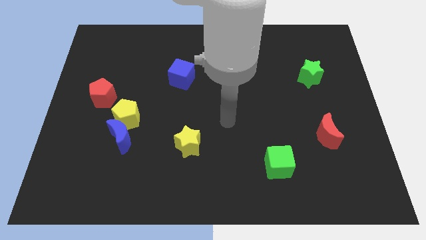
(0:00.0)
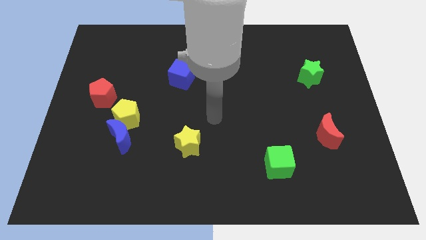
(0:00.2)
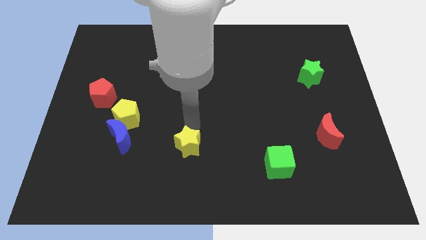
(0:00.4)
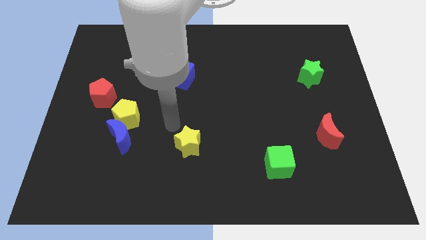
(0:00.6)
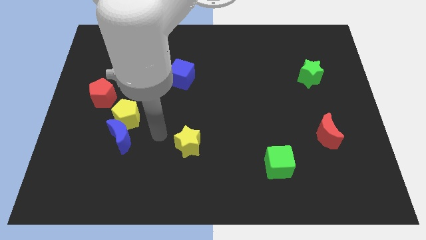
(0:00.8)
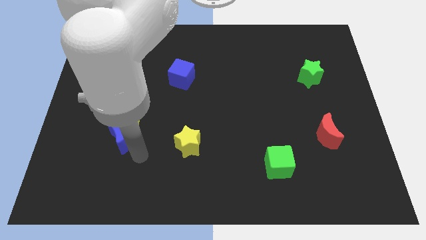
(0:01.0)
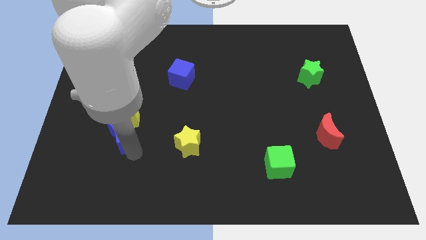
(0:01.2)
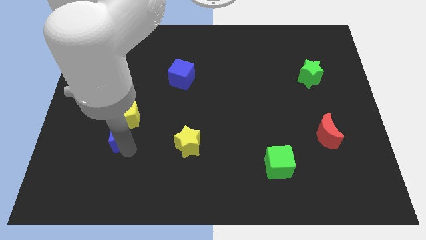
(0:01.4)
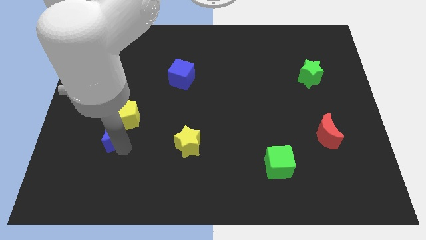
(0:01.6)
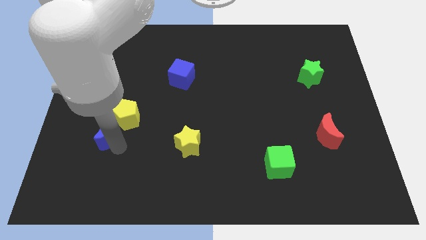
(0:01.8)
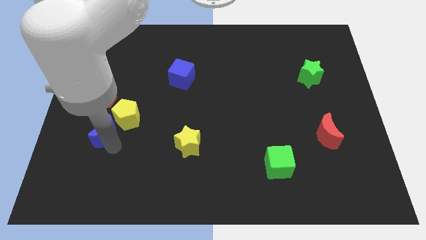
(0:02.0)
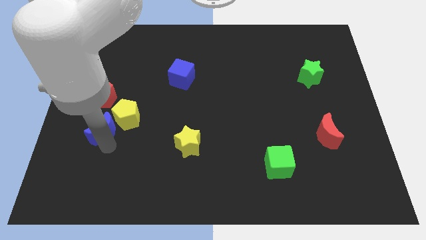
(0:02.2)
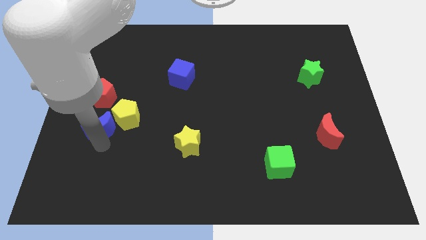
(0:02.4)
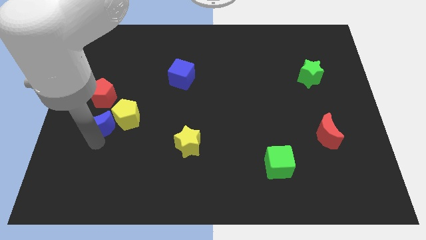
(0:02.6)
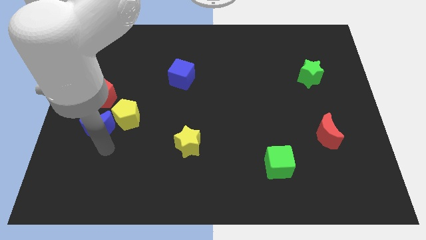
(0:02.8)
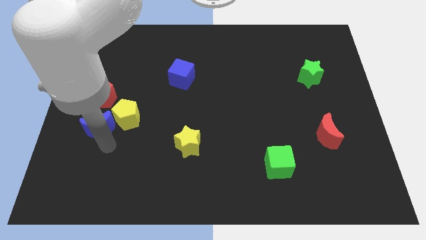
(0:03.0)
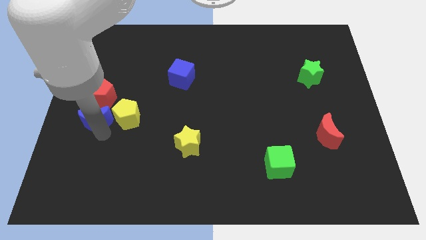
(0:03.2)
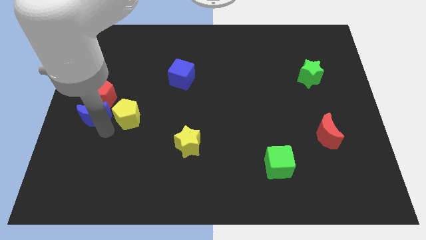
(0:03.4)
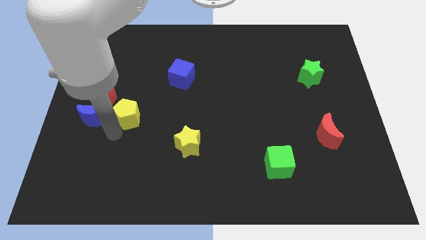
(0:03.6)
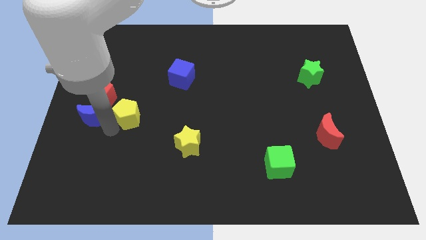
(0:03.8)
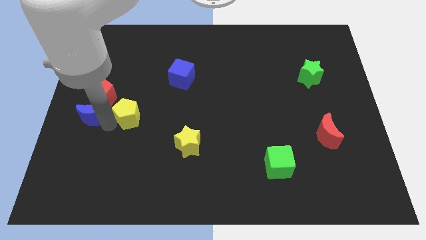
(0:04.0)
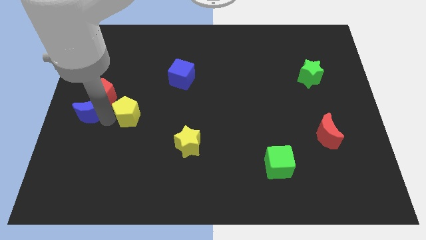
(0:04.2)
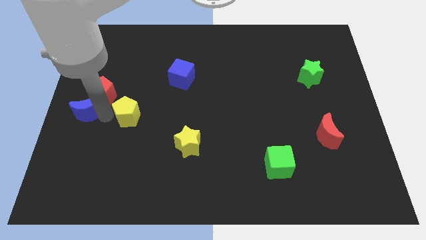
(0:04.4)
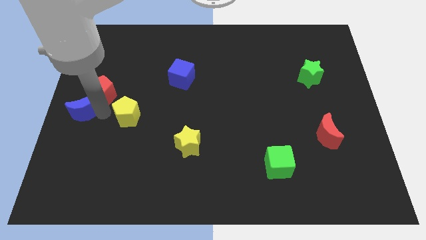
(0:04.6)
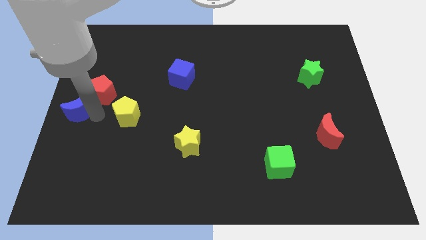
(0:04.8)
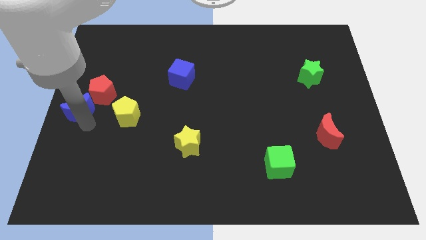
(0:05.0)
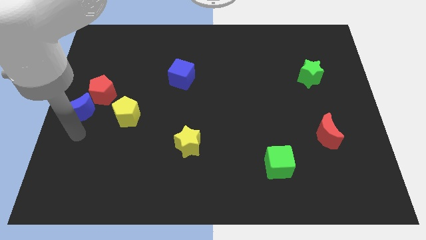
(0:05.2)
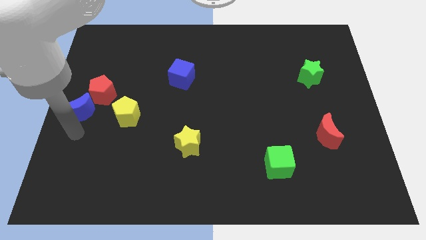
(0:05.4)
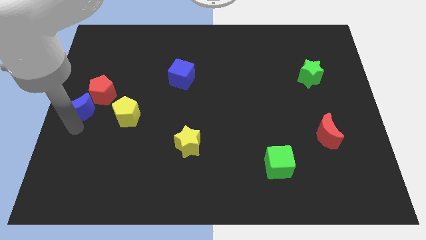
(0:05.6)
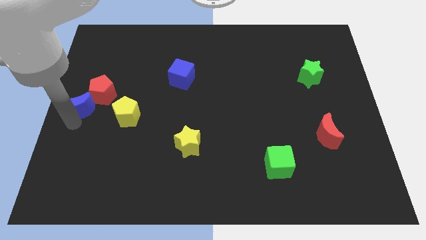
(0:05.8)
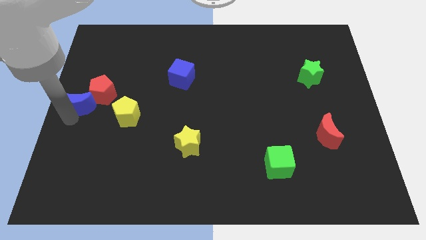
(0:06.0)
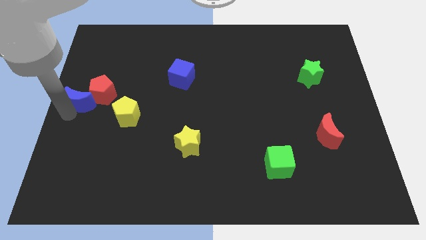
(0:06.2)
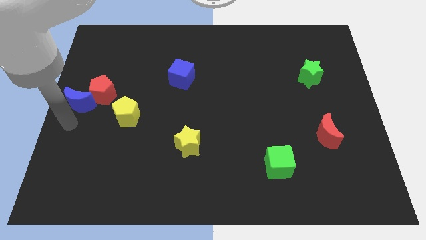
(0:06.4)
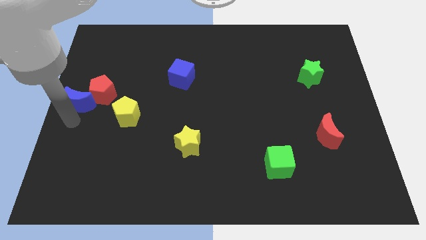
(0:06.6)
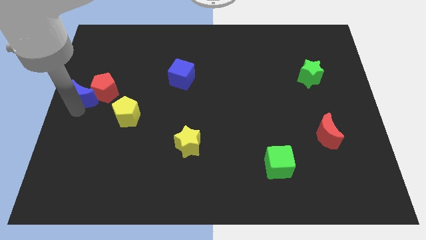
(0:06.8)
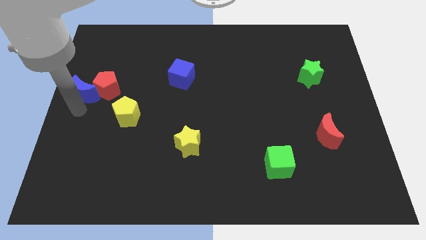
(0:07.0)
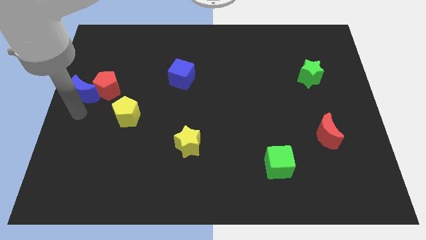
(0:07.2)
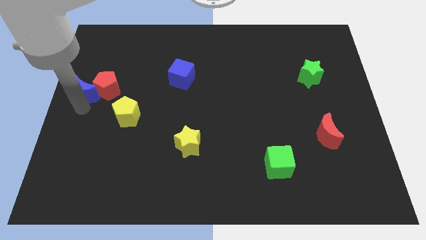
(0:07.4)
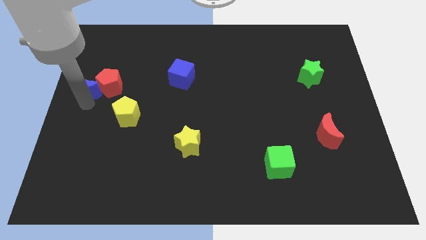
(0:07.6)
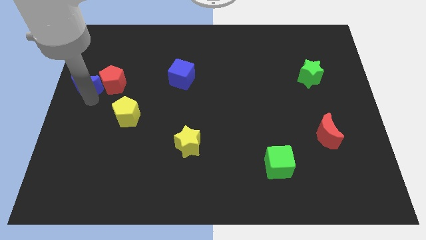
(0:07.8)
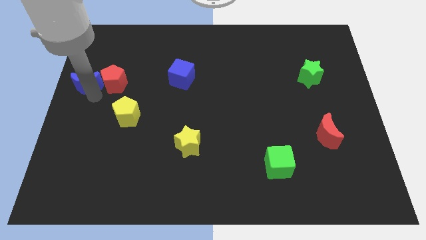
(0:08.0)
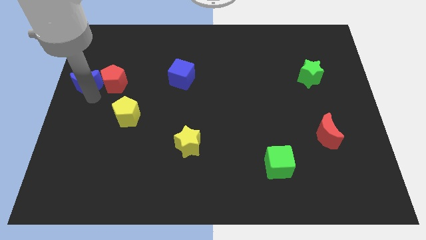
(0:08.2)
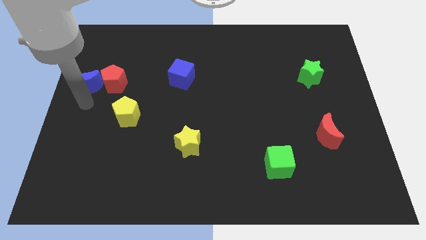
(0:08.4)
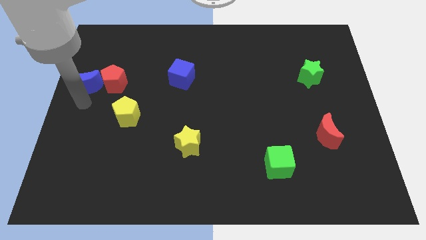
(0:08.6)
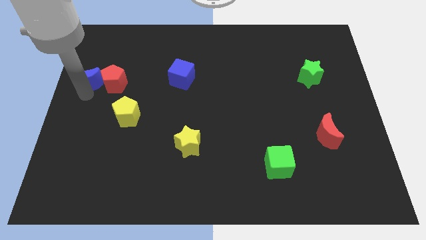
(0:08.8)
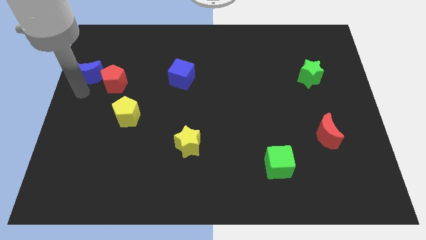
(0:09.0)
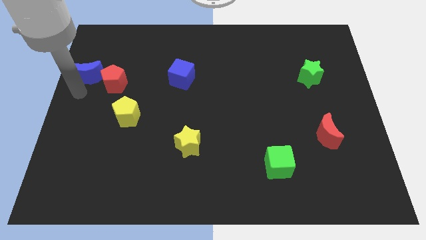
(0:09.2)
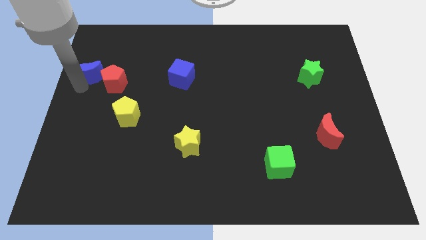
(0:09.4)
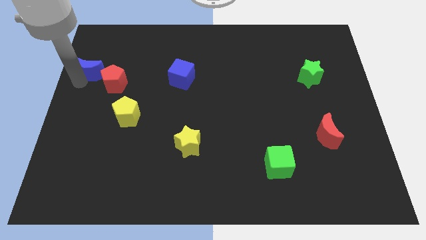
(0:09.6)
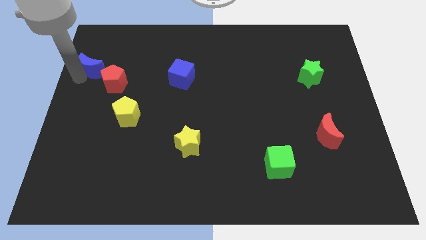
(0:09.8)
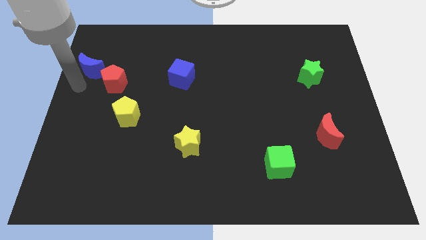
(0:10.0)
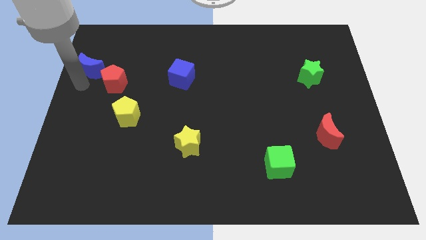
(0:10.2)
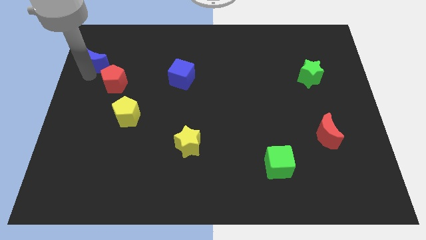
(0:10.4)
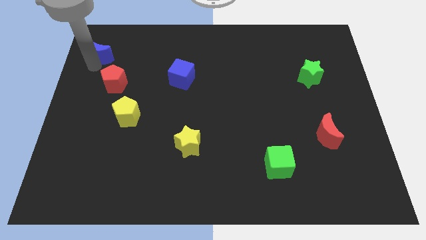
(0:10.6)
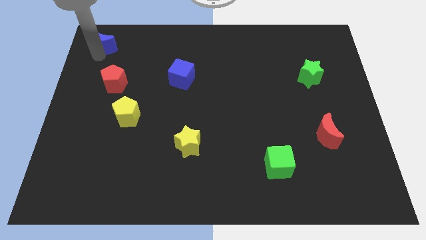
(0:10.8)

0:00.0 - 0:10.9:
move the blue moon to the upper left corner
